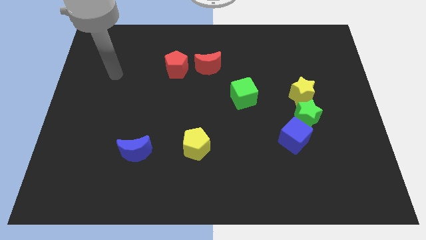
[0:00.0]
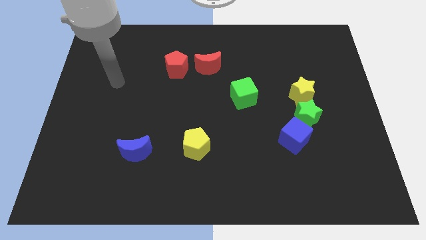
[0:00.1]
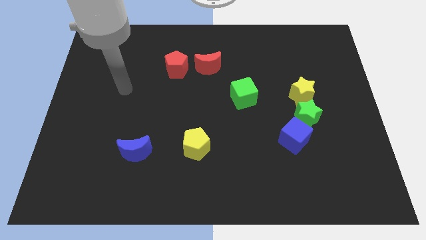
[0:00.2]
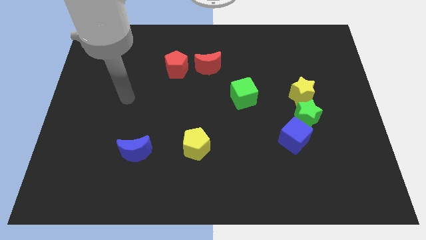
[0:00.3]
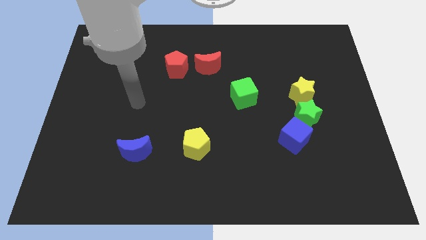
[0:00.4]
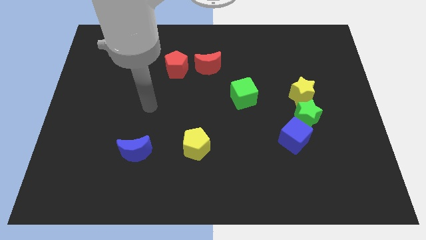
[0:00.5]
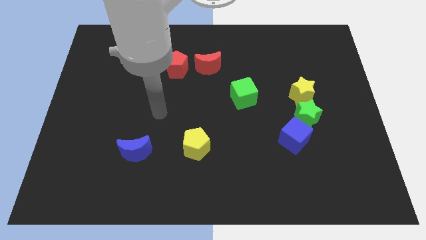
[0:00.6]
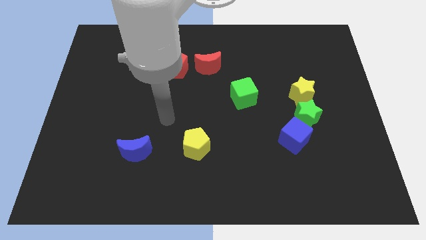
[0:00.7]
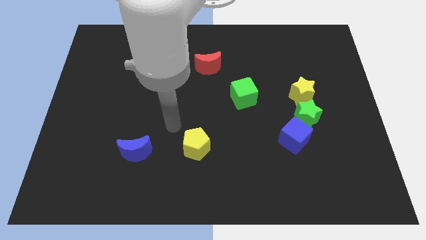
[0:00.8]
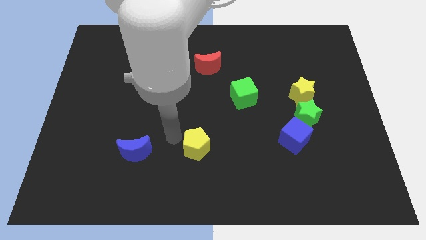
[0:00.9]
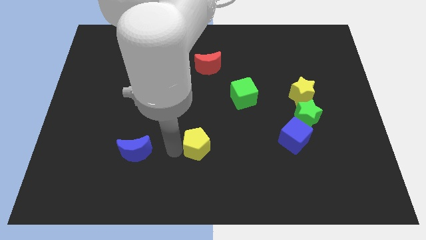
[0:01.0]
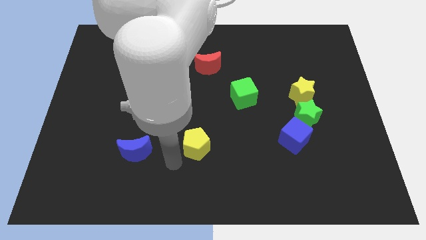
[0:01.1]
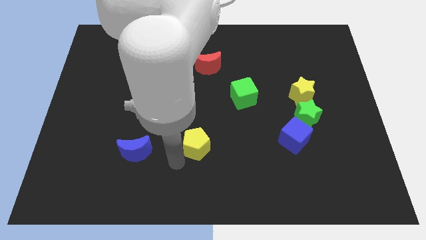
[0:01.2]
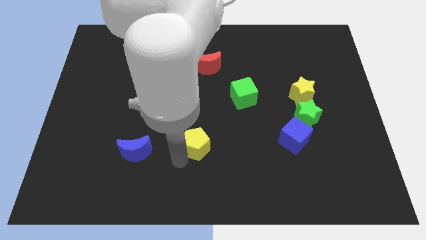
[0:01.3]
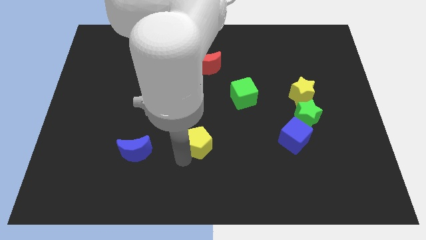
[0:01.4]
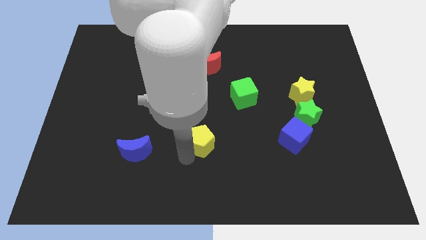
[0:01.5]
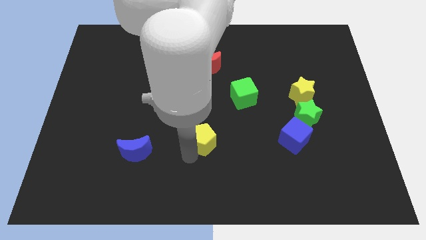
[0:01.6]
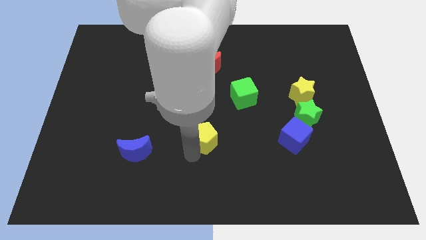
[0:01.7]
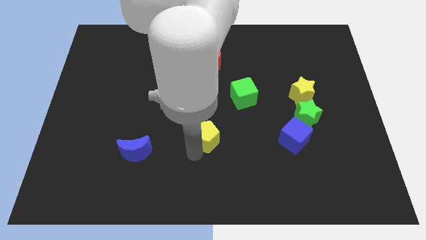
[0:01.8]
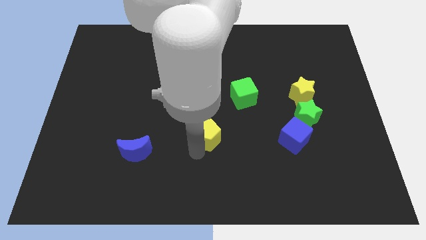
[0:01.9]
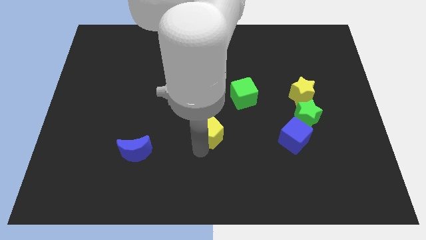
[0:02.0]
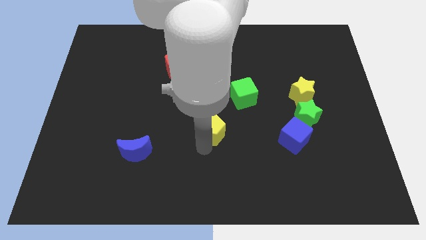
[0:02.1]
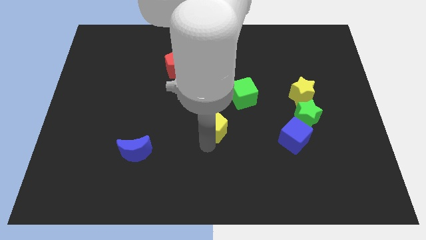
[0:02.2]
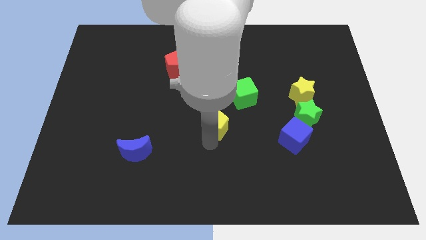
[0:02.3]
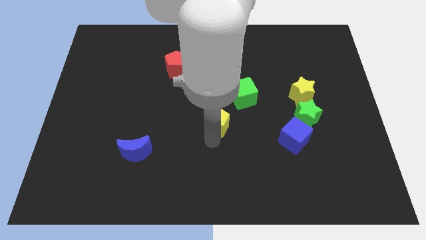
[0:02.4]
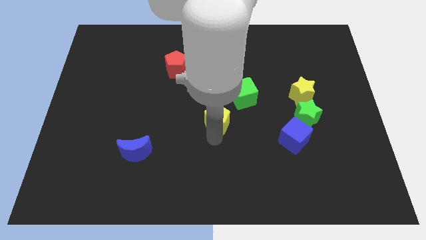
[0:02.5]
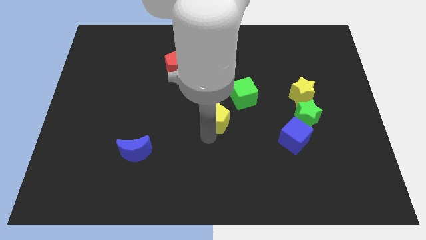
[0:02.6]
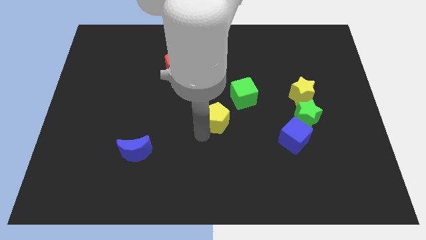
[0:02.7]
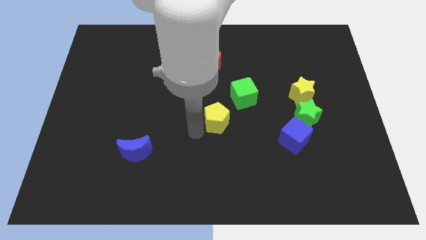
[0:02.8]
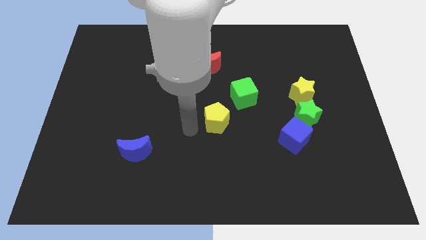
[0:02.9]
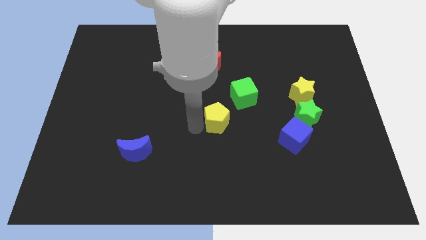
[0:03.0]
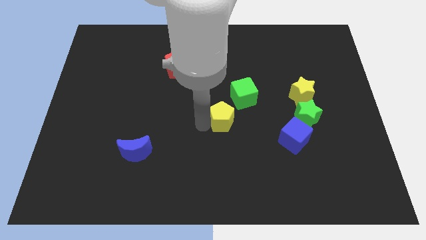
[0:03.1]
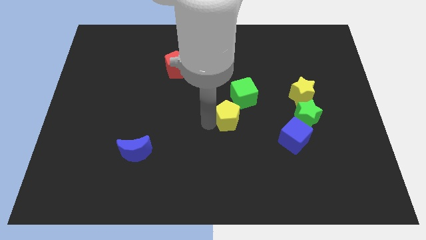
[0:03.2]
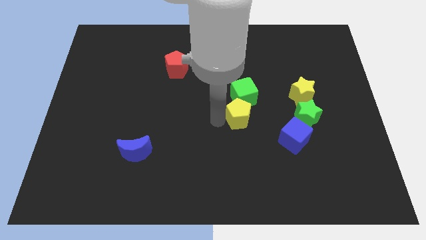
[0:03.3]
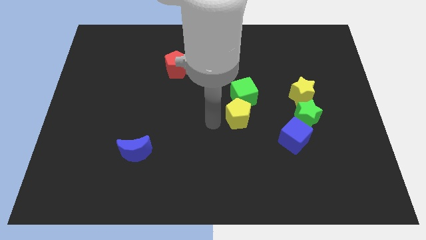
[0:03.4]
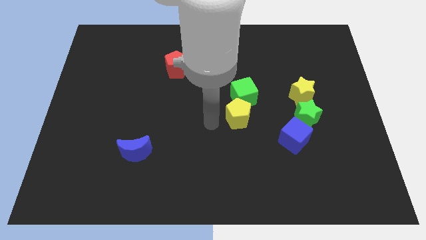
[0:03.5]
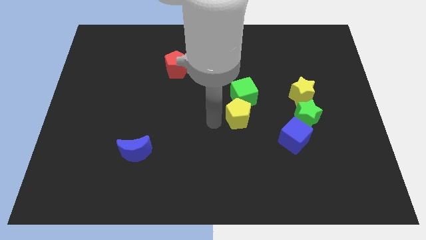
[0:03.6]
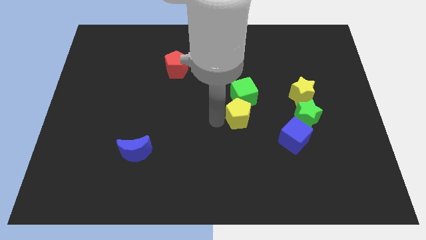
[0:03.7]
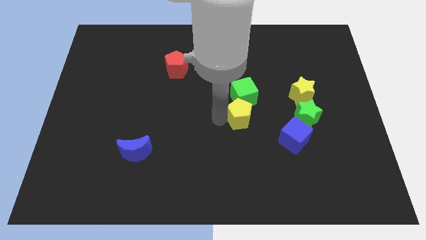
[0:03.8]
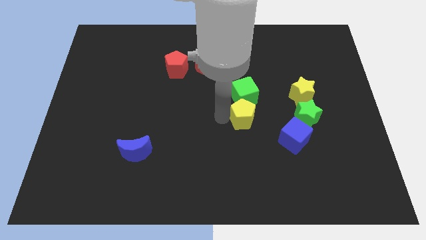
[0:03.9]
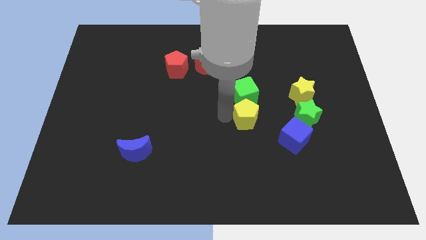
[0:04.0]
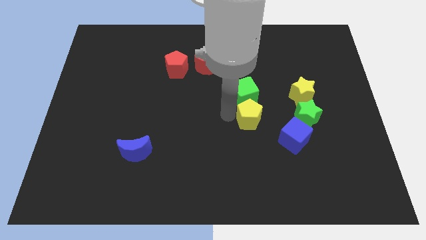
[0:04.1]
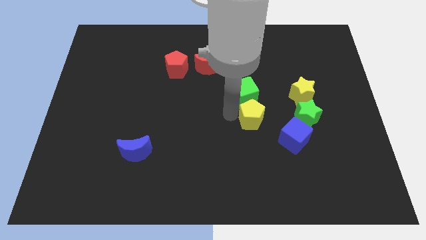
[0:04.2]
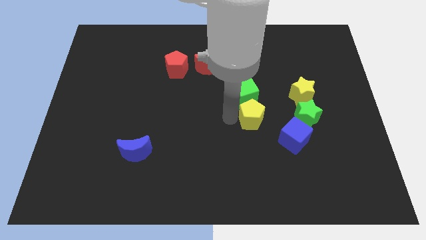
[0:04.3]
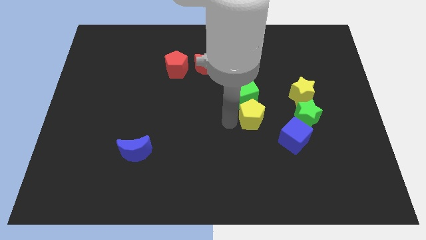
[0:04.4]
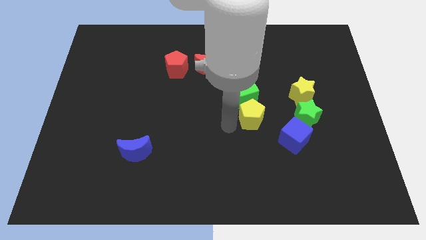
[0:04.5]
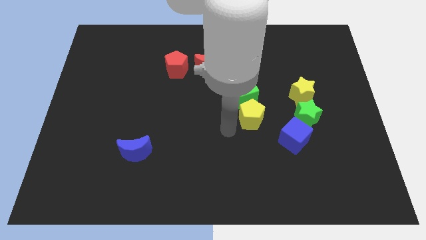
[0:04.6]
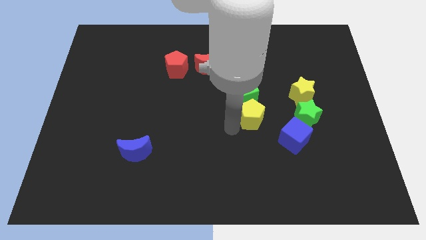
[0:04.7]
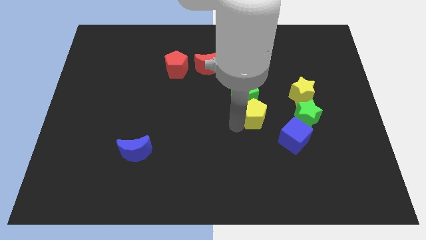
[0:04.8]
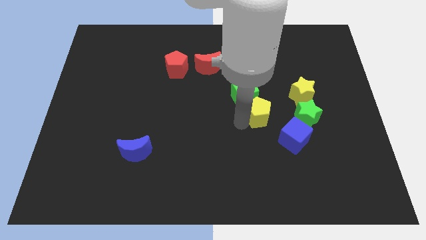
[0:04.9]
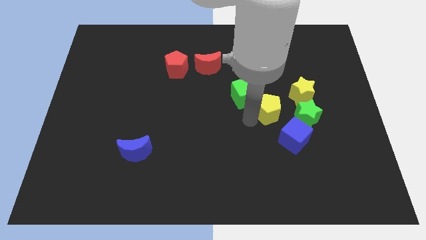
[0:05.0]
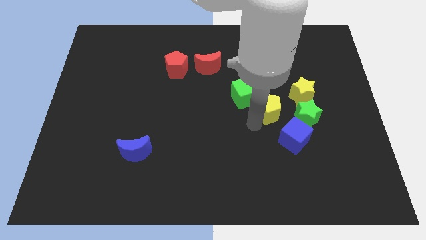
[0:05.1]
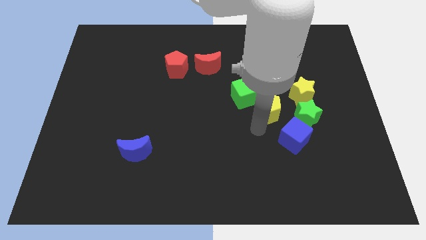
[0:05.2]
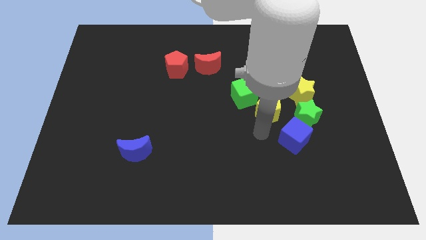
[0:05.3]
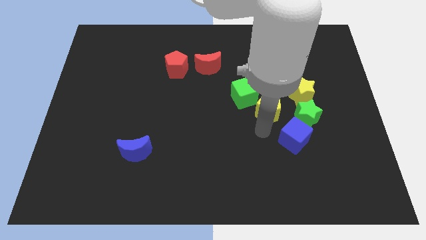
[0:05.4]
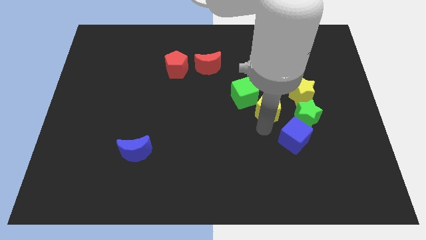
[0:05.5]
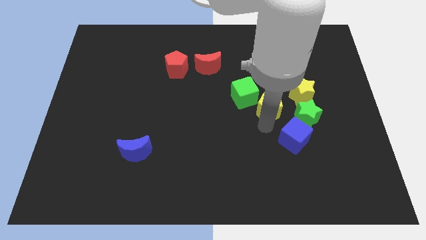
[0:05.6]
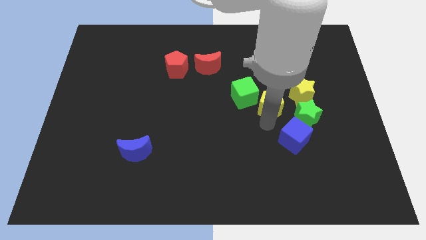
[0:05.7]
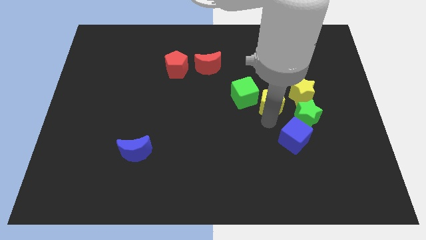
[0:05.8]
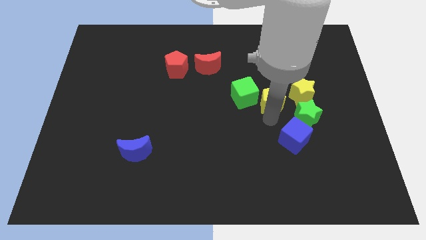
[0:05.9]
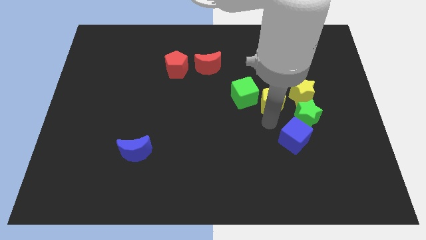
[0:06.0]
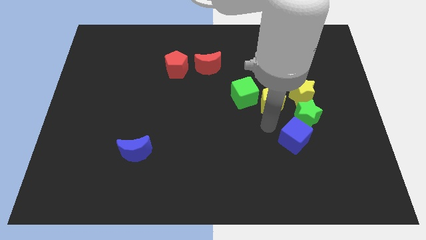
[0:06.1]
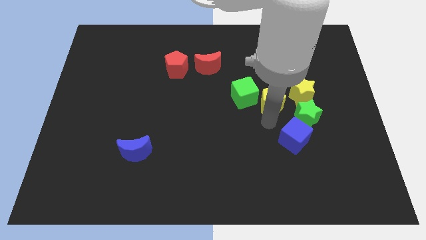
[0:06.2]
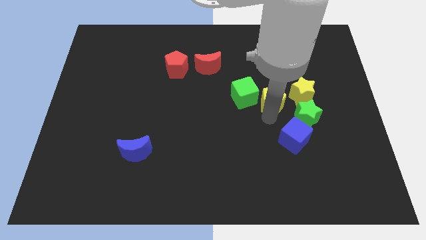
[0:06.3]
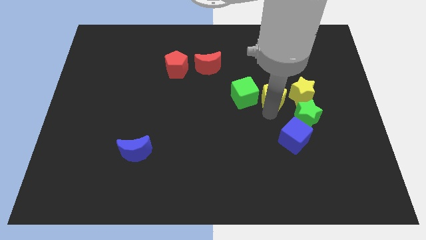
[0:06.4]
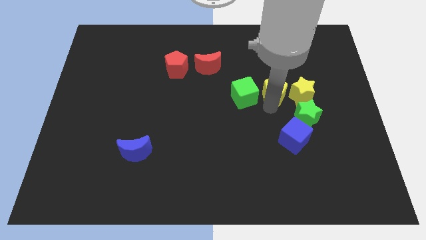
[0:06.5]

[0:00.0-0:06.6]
slide the yellow pentagon diagonally up and to the left of the yellow star

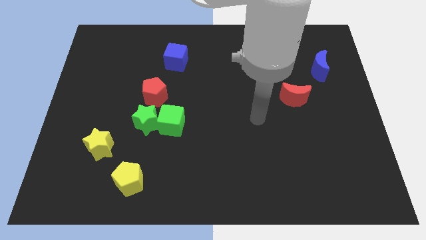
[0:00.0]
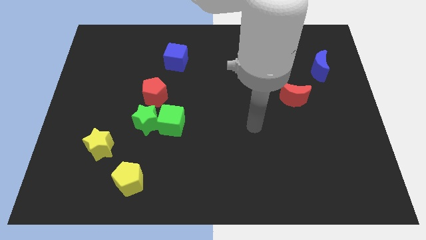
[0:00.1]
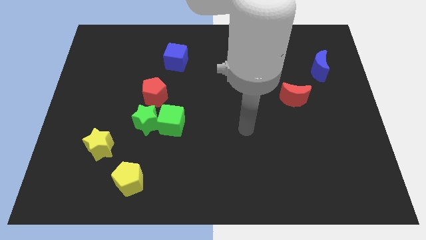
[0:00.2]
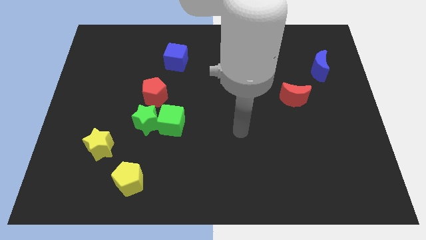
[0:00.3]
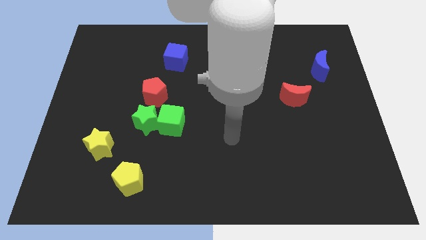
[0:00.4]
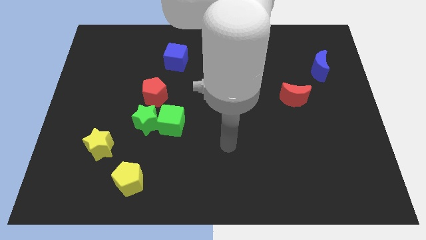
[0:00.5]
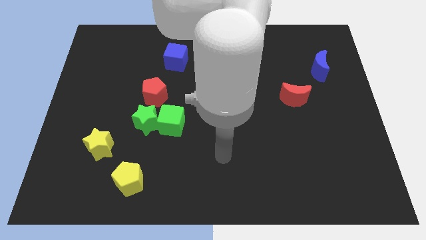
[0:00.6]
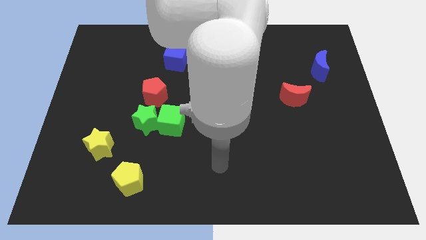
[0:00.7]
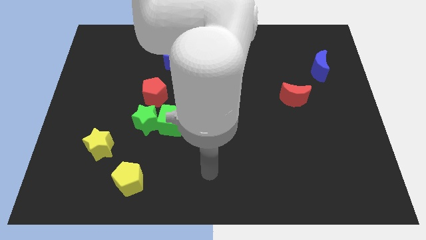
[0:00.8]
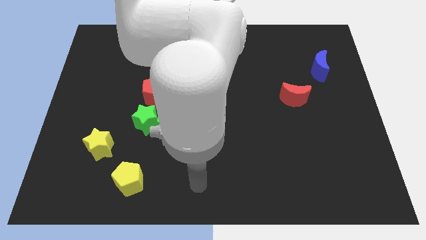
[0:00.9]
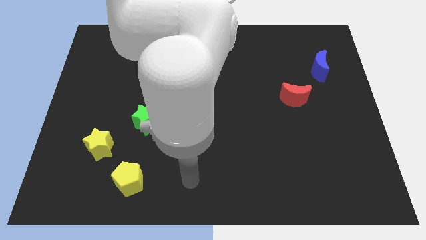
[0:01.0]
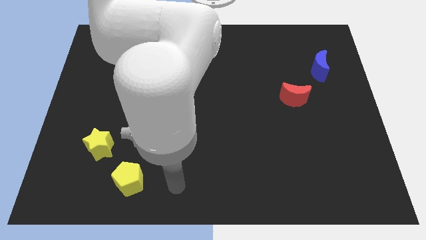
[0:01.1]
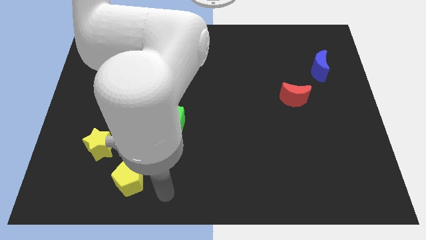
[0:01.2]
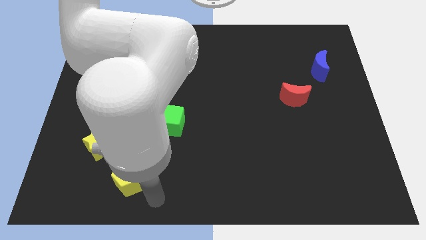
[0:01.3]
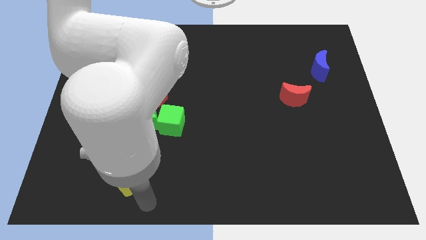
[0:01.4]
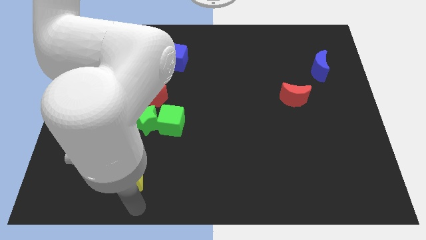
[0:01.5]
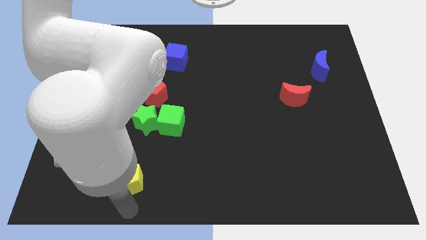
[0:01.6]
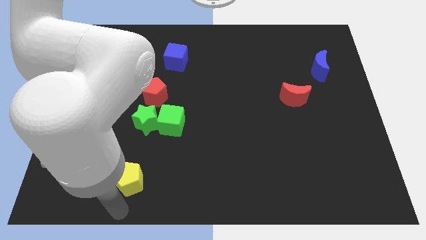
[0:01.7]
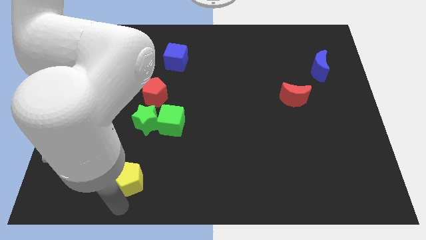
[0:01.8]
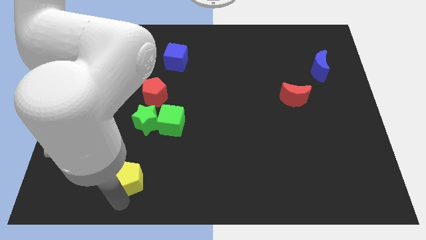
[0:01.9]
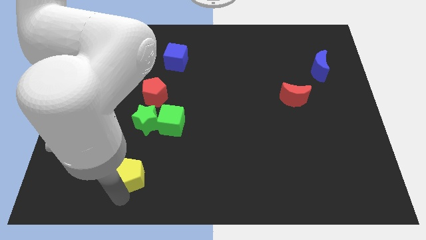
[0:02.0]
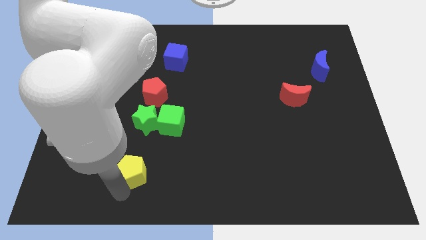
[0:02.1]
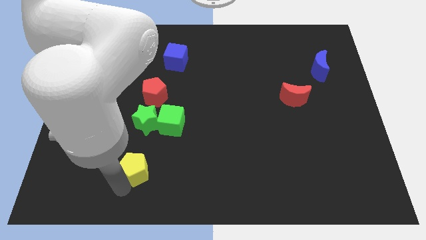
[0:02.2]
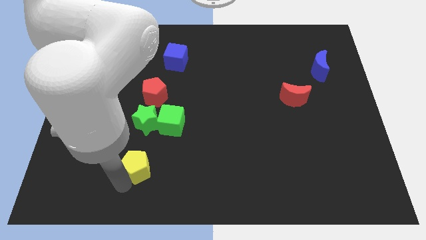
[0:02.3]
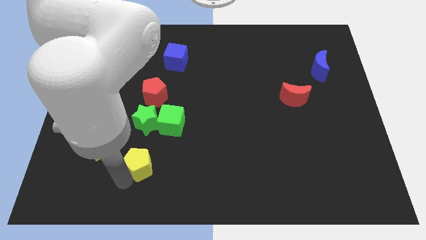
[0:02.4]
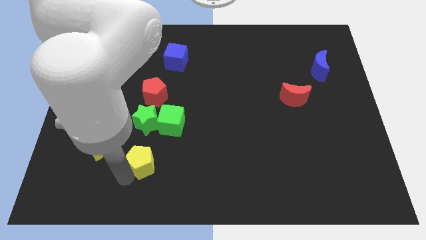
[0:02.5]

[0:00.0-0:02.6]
move the yellow pentagon diagonally down and to the left of the green cube
